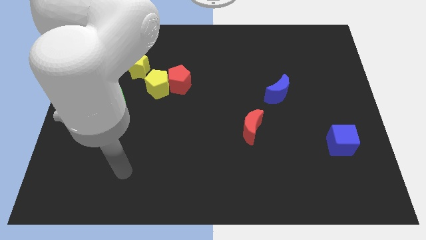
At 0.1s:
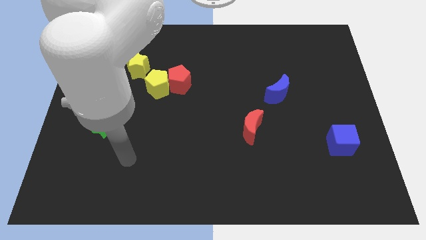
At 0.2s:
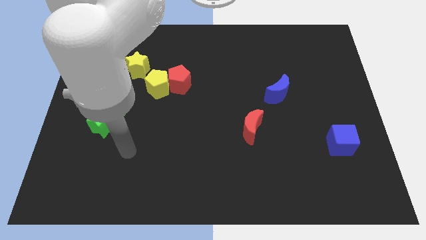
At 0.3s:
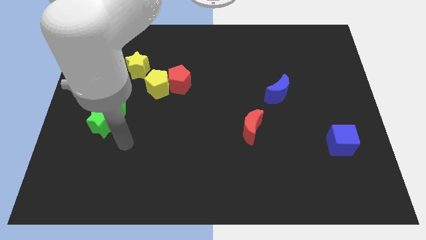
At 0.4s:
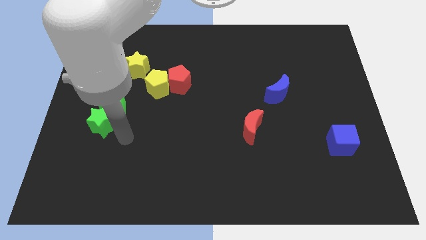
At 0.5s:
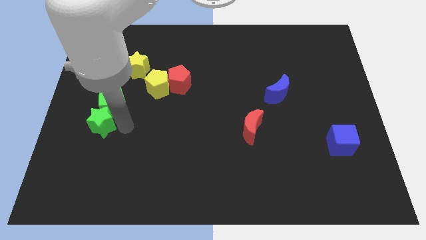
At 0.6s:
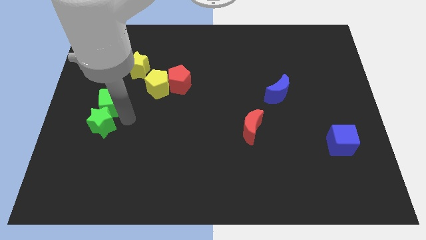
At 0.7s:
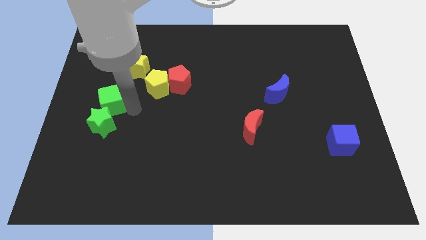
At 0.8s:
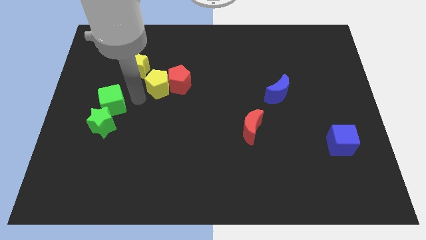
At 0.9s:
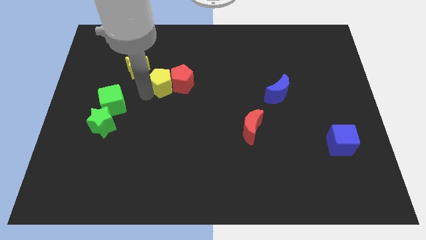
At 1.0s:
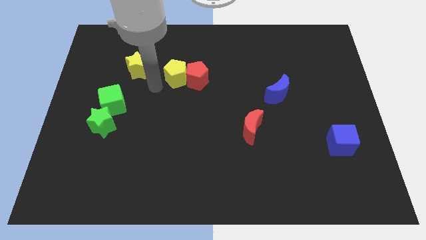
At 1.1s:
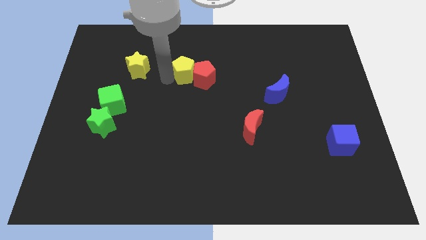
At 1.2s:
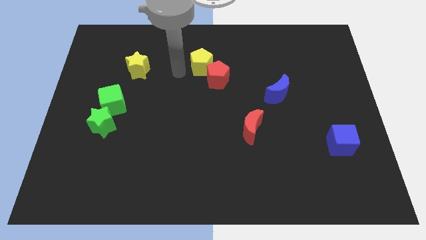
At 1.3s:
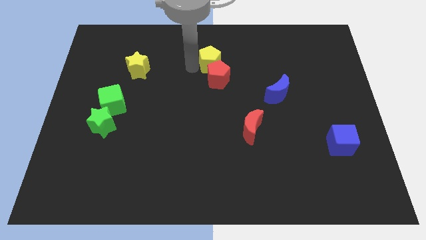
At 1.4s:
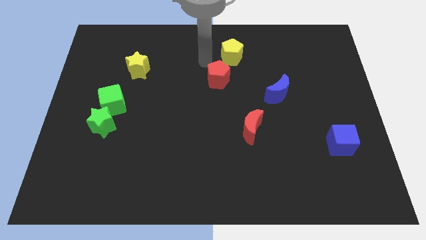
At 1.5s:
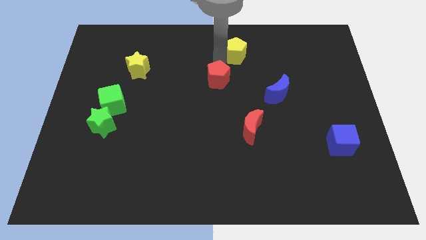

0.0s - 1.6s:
pull the red pentagon apart from the yellow pentagon

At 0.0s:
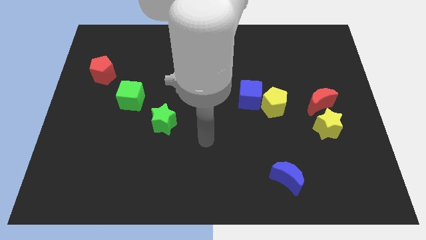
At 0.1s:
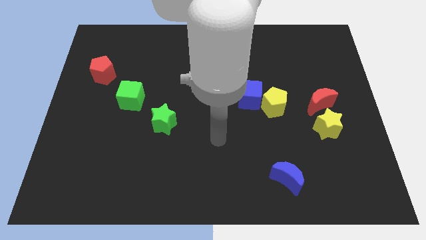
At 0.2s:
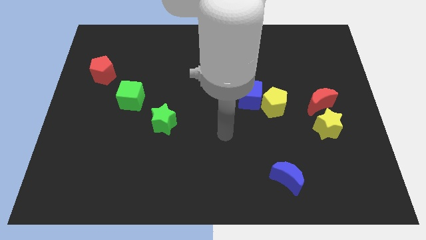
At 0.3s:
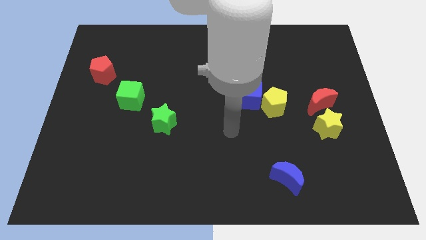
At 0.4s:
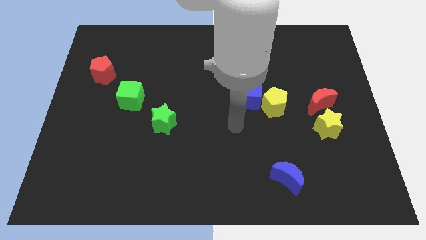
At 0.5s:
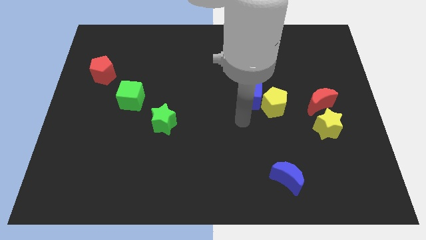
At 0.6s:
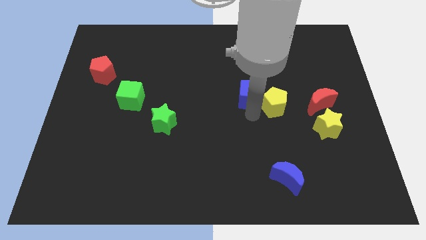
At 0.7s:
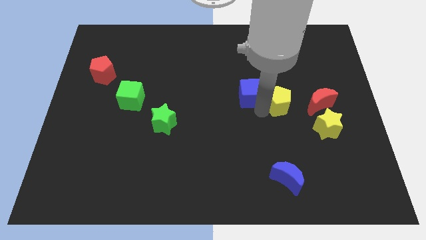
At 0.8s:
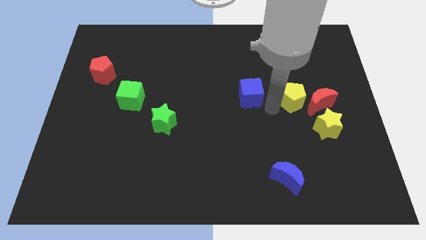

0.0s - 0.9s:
separate the blue cube from the yellow pentagon

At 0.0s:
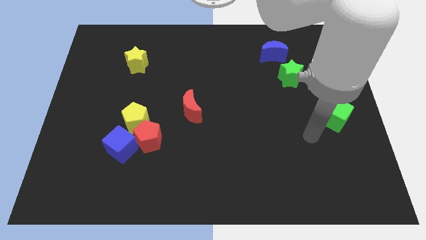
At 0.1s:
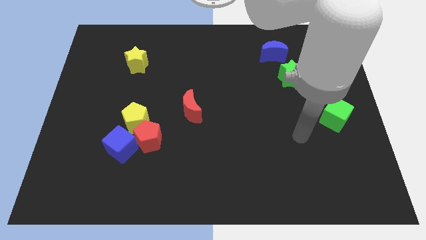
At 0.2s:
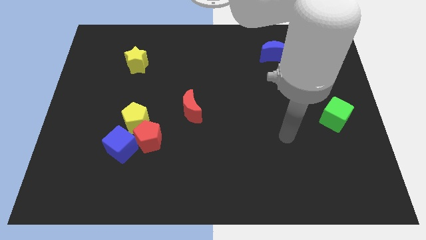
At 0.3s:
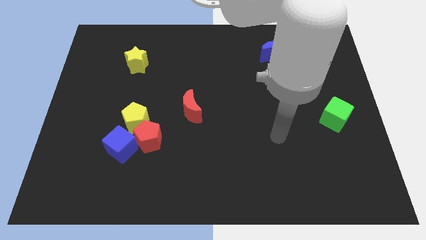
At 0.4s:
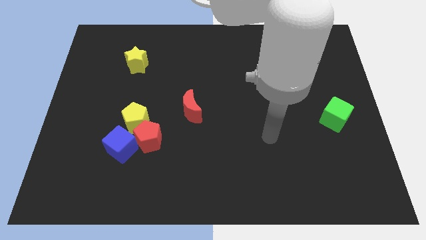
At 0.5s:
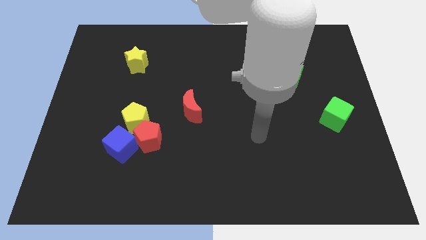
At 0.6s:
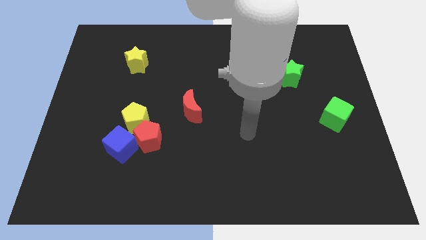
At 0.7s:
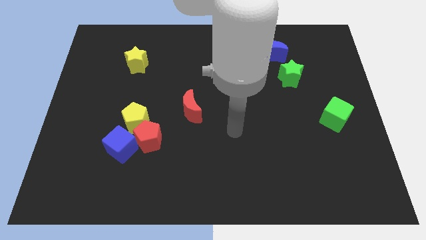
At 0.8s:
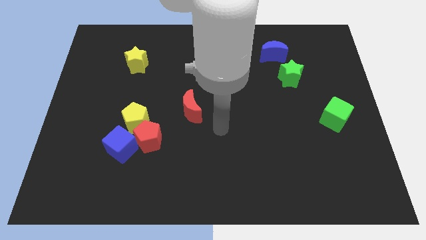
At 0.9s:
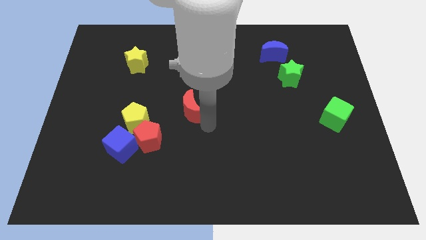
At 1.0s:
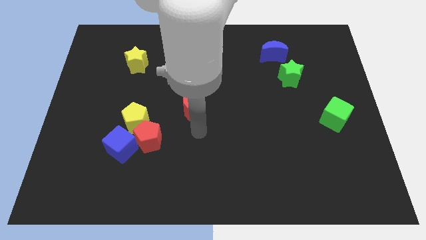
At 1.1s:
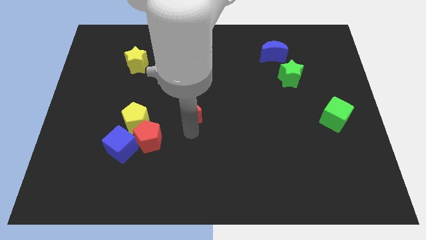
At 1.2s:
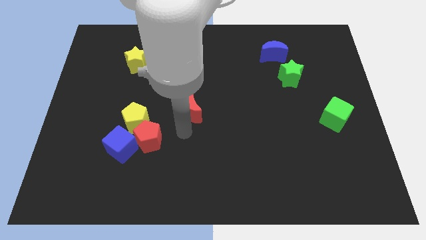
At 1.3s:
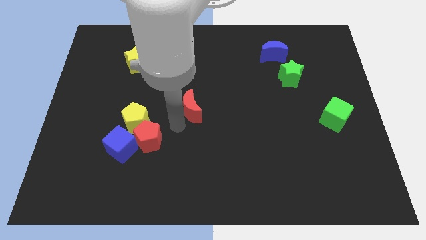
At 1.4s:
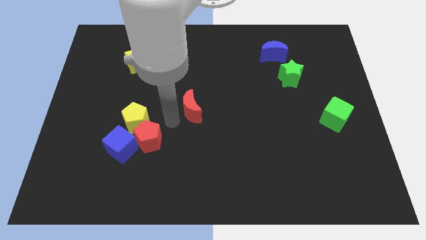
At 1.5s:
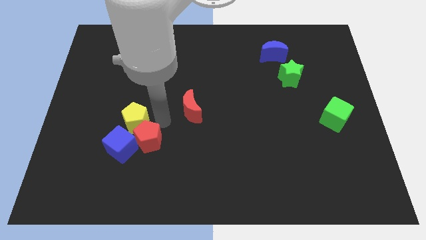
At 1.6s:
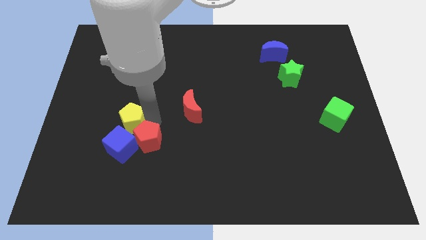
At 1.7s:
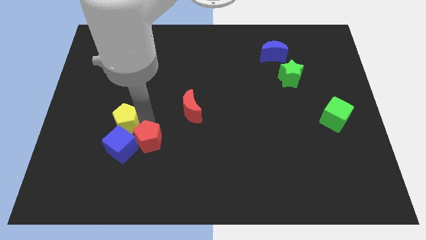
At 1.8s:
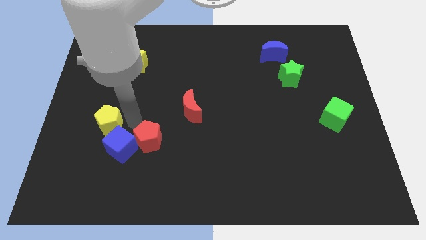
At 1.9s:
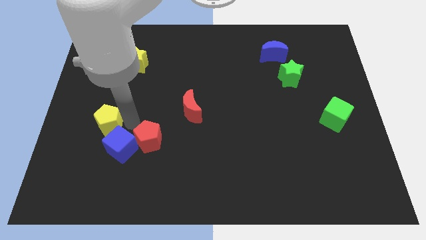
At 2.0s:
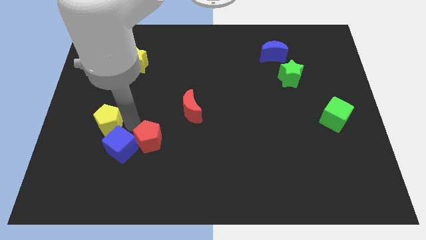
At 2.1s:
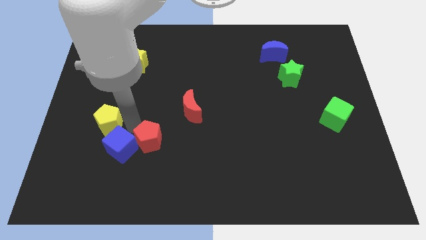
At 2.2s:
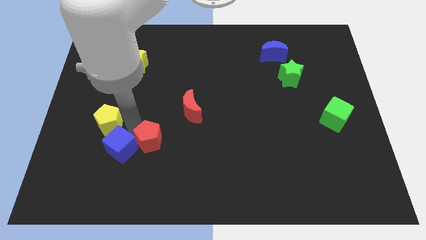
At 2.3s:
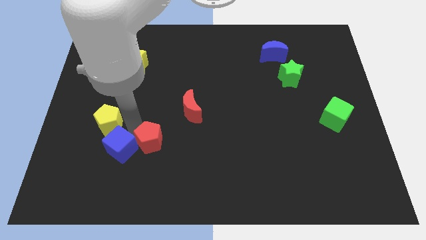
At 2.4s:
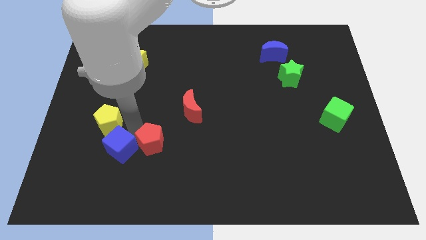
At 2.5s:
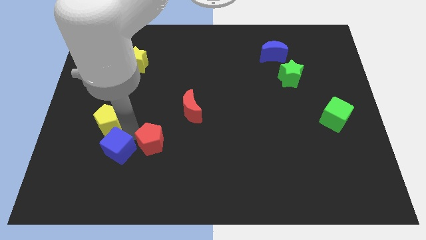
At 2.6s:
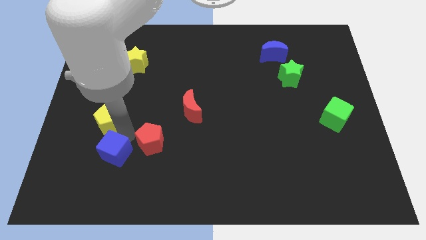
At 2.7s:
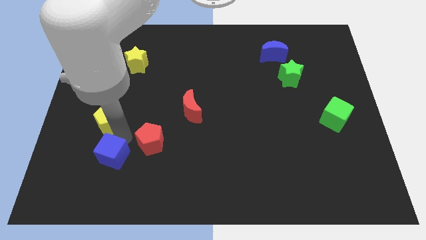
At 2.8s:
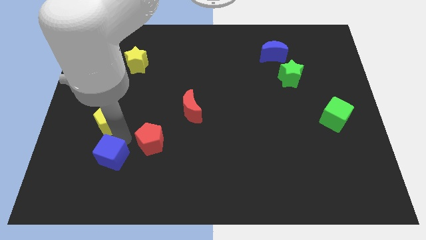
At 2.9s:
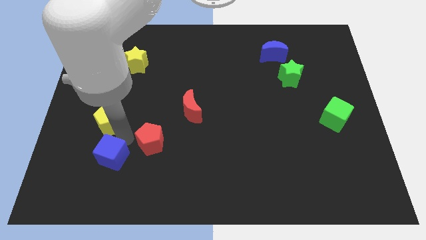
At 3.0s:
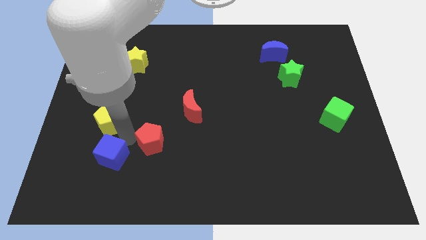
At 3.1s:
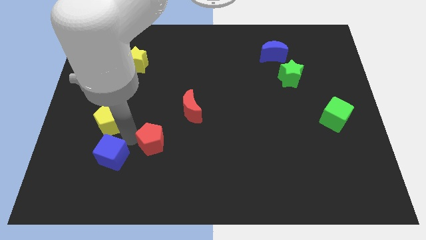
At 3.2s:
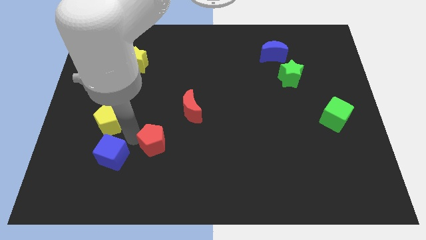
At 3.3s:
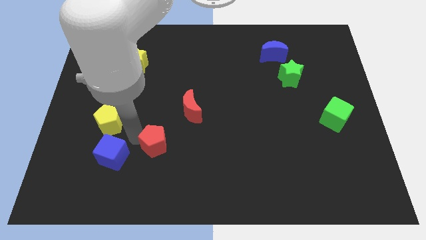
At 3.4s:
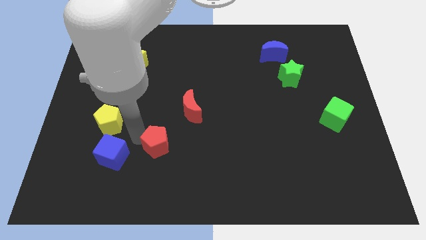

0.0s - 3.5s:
pull the red pentagon apart from the yellow pentagon and blue cube

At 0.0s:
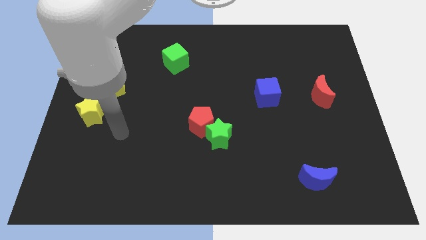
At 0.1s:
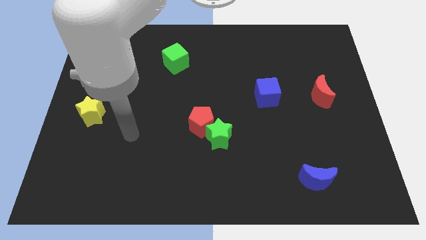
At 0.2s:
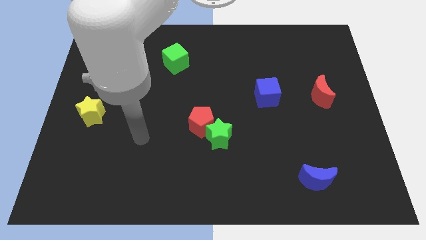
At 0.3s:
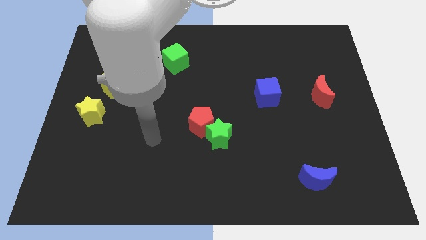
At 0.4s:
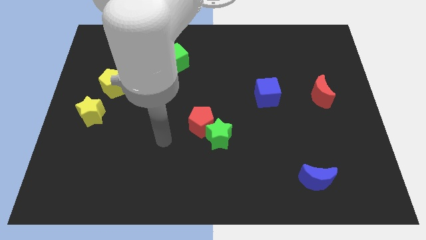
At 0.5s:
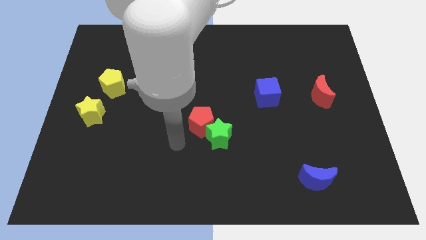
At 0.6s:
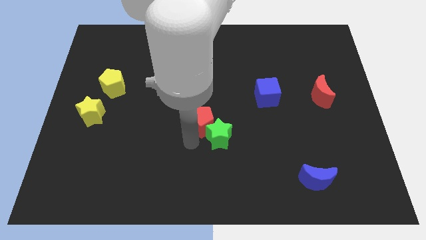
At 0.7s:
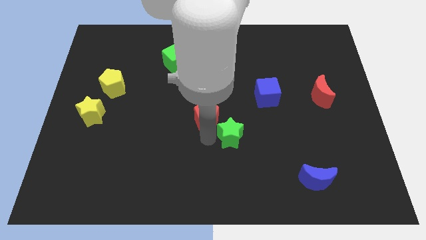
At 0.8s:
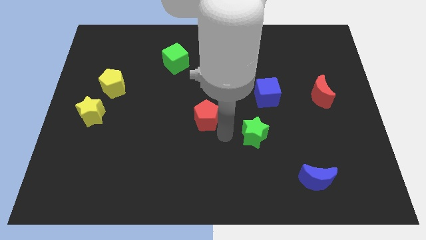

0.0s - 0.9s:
separate the red pentagon from the green star

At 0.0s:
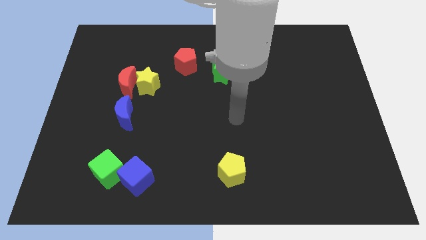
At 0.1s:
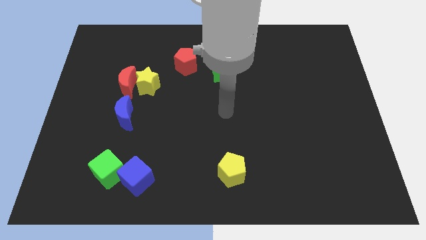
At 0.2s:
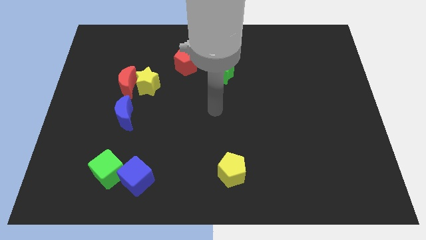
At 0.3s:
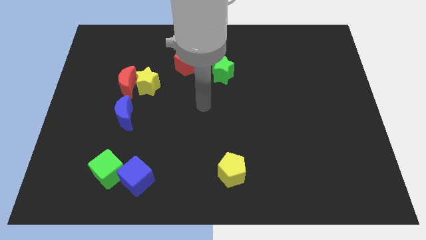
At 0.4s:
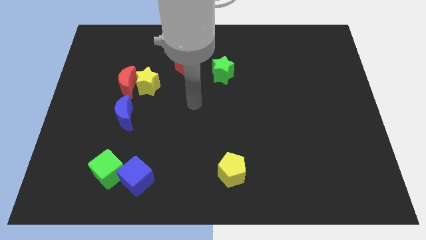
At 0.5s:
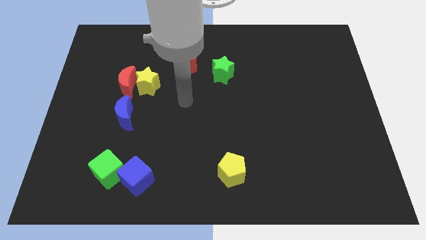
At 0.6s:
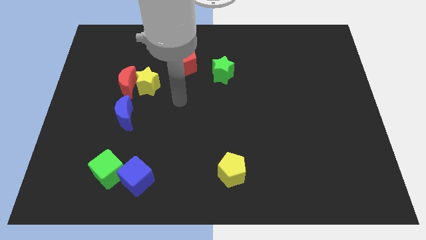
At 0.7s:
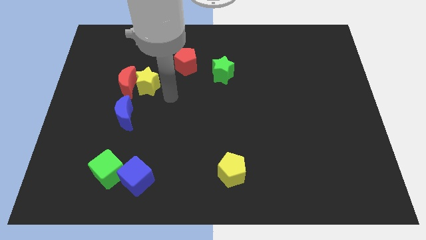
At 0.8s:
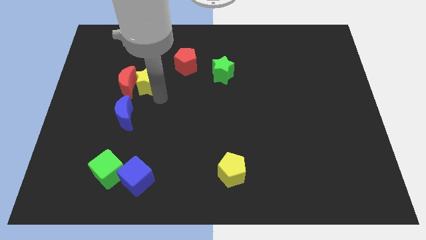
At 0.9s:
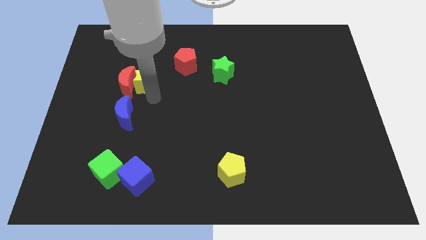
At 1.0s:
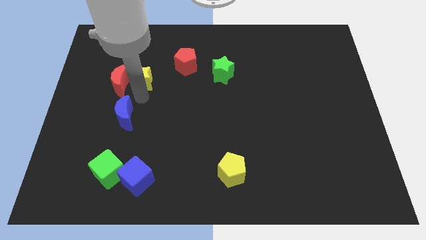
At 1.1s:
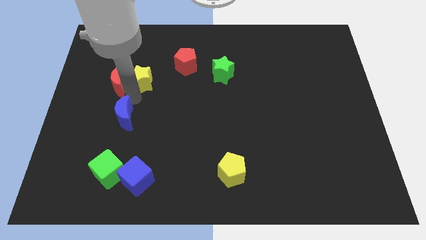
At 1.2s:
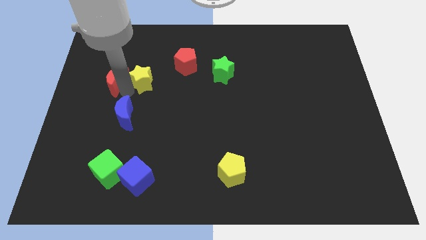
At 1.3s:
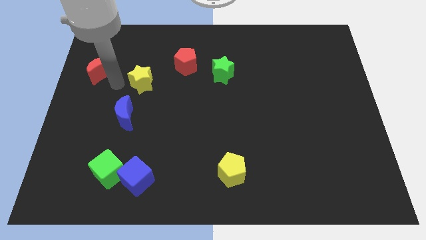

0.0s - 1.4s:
separate the yellow star from the red moon

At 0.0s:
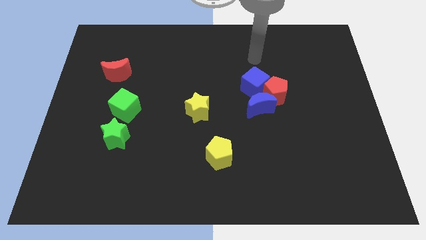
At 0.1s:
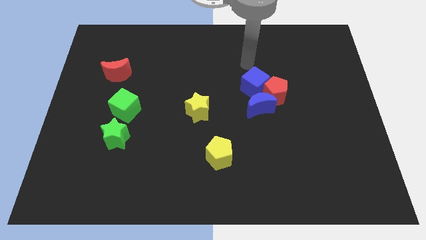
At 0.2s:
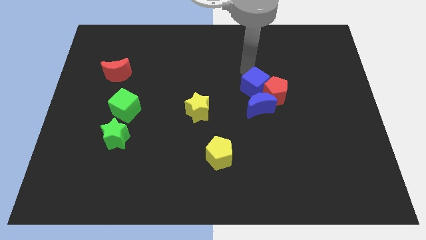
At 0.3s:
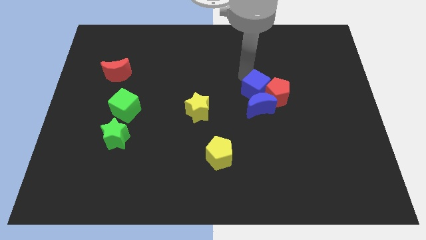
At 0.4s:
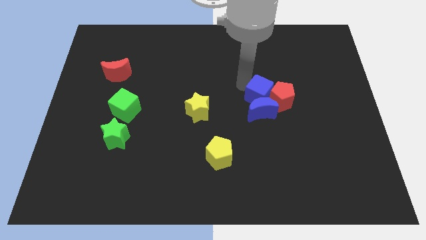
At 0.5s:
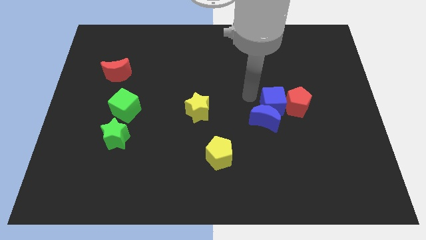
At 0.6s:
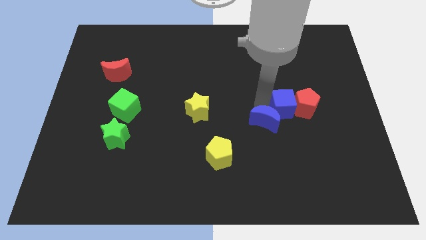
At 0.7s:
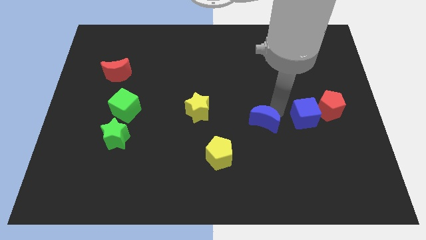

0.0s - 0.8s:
pull the red pentagon apart from the blue cube and blue moon

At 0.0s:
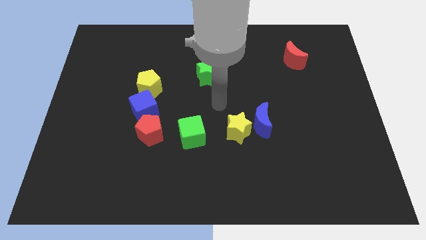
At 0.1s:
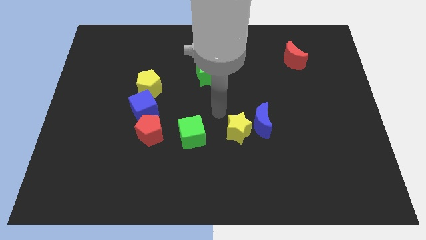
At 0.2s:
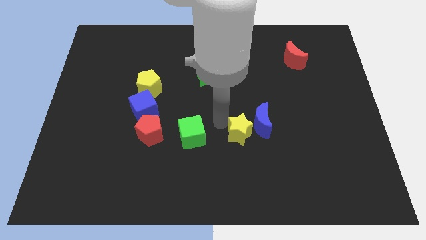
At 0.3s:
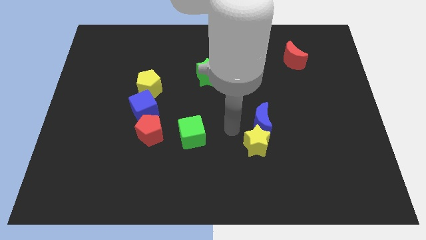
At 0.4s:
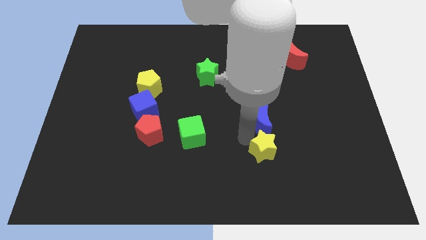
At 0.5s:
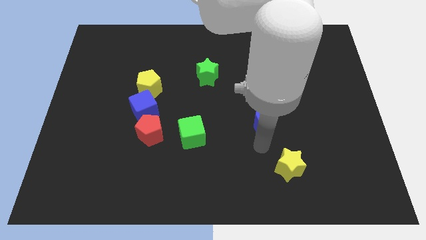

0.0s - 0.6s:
pull the blue moon apart from the yellow star
